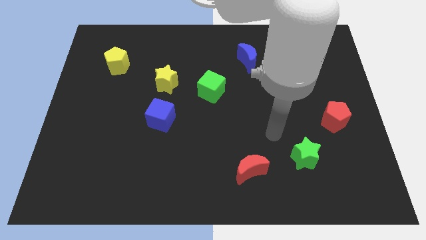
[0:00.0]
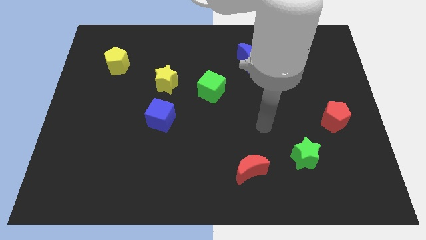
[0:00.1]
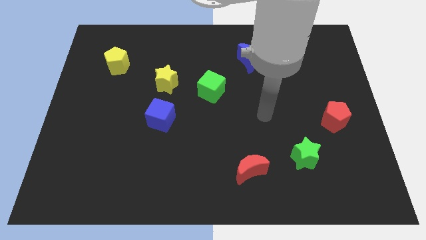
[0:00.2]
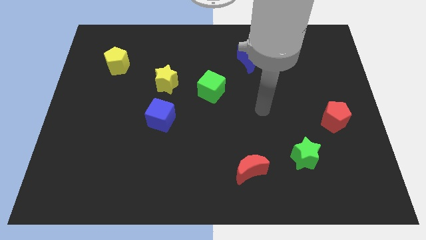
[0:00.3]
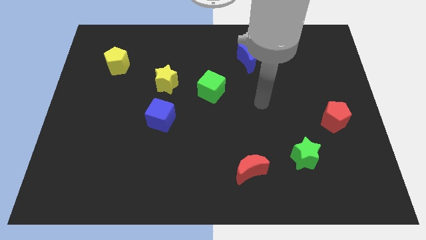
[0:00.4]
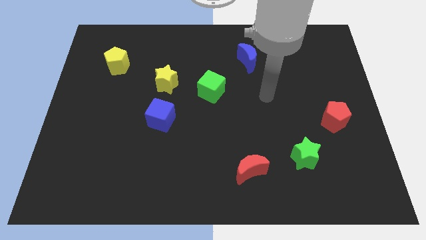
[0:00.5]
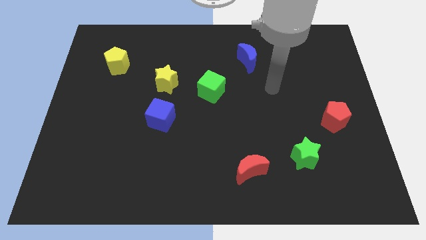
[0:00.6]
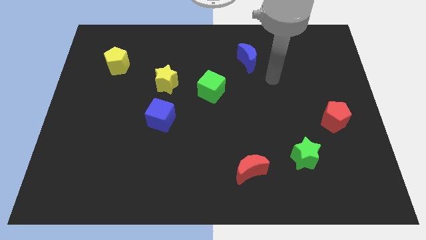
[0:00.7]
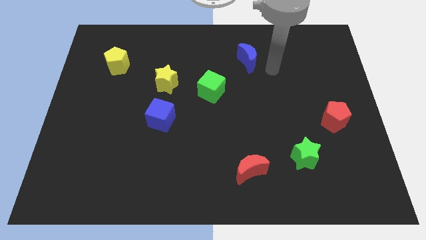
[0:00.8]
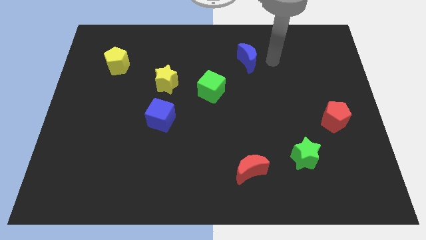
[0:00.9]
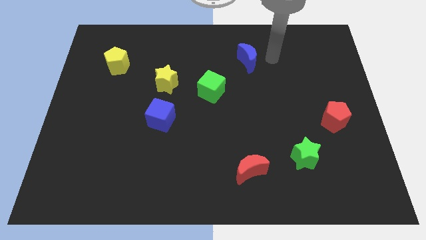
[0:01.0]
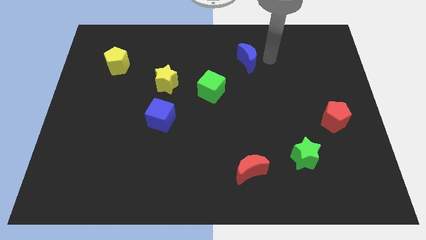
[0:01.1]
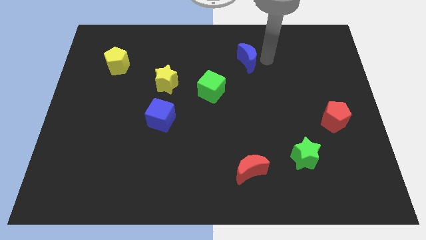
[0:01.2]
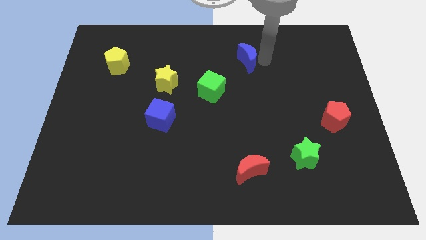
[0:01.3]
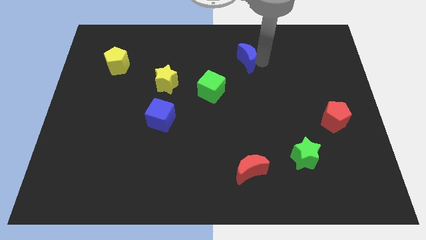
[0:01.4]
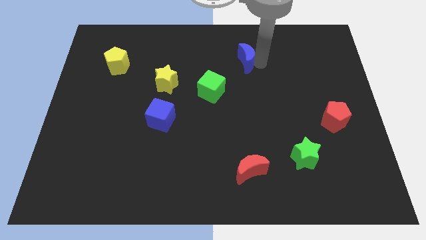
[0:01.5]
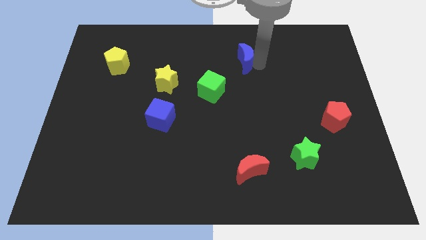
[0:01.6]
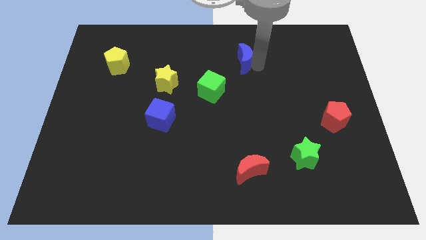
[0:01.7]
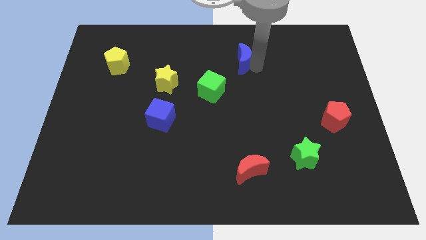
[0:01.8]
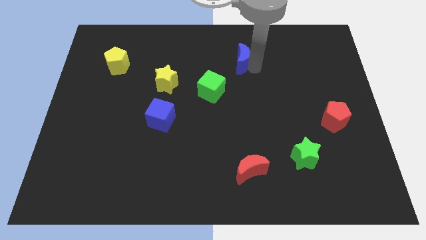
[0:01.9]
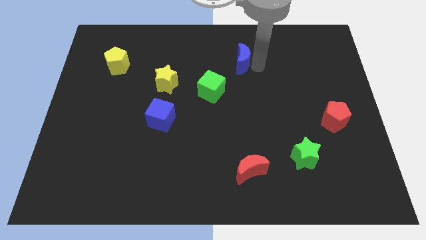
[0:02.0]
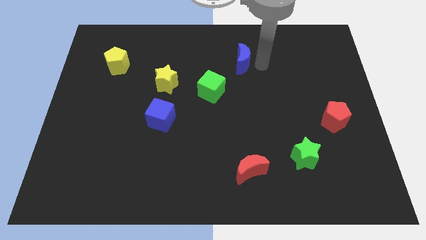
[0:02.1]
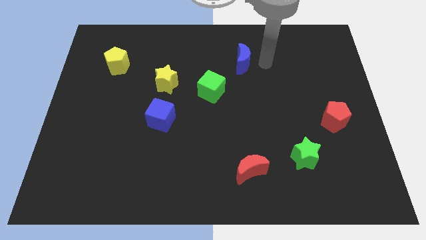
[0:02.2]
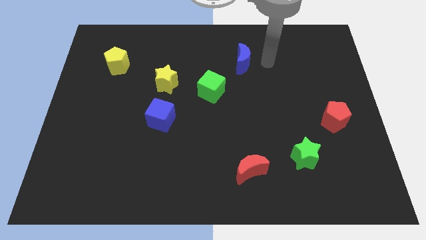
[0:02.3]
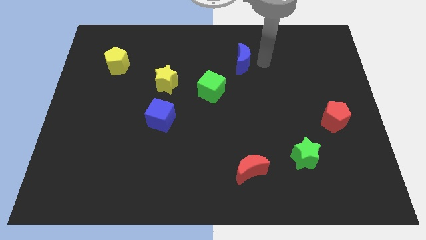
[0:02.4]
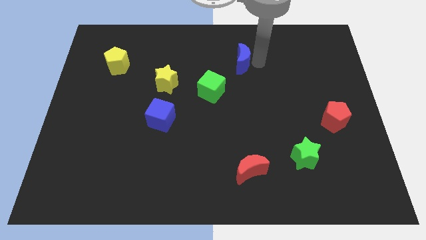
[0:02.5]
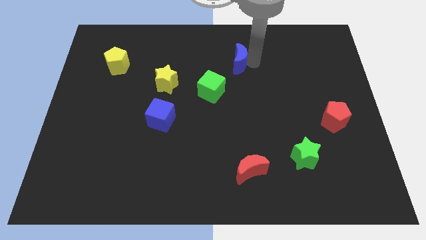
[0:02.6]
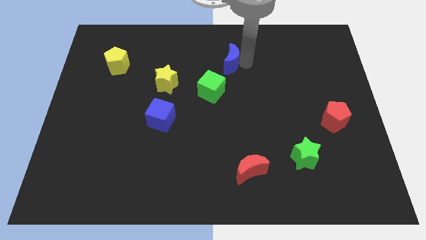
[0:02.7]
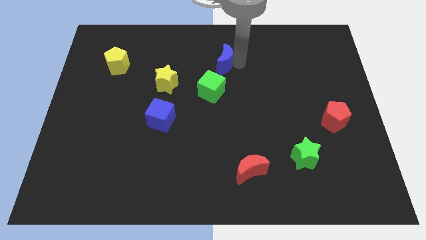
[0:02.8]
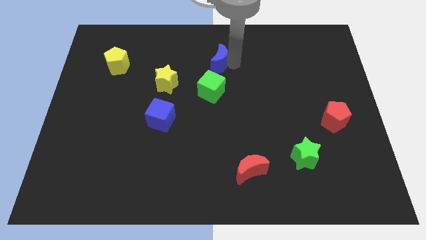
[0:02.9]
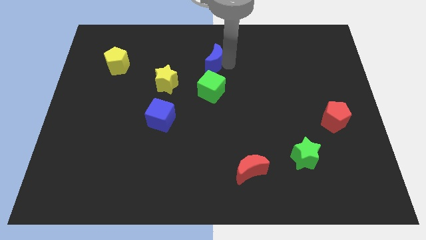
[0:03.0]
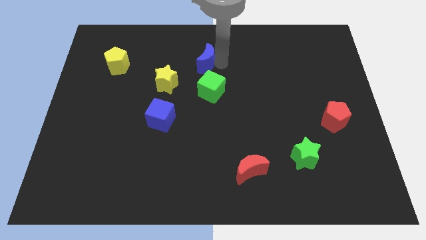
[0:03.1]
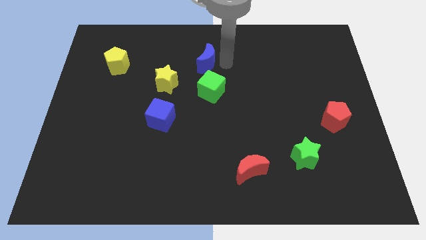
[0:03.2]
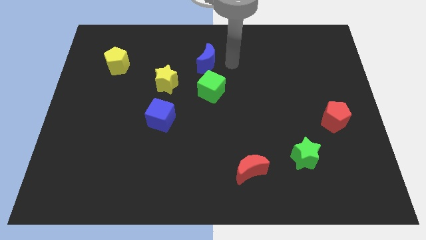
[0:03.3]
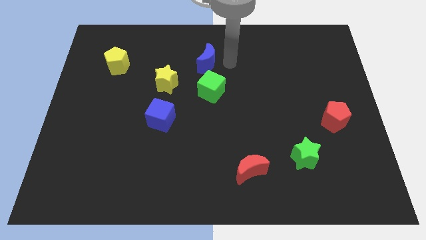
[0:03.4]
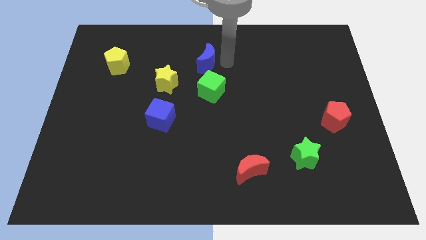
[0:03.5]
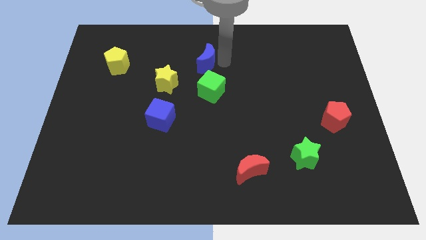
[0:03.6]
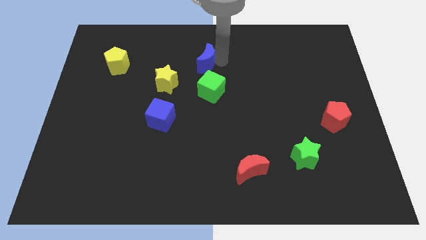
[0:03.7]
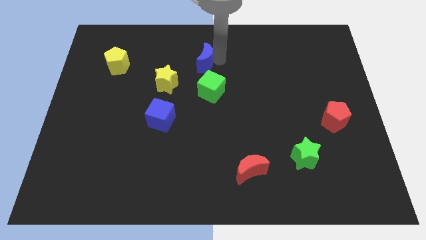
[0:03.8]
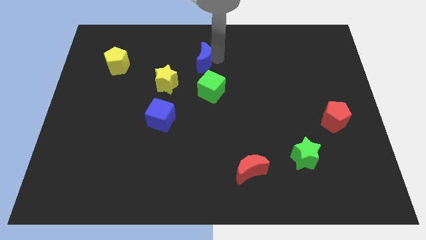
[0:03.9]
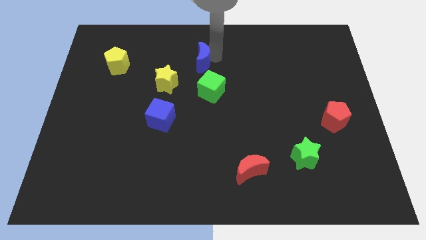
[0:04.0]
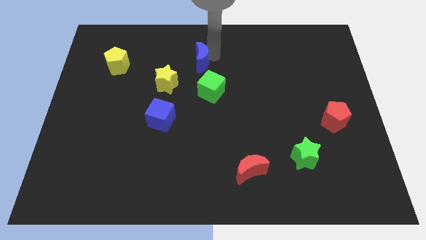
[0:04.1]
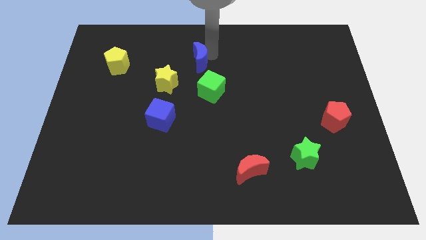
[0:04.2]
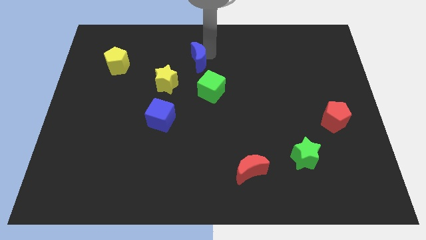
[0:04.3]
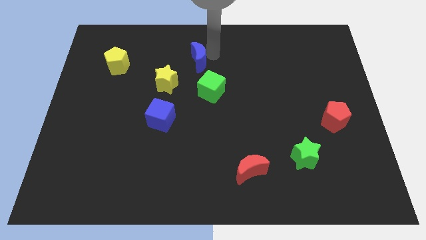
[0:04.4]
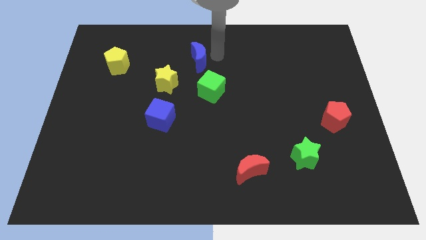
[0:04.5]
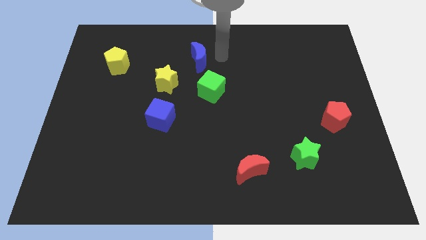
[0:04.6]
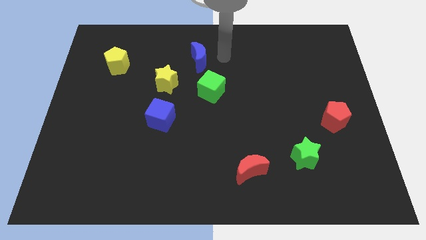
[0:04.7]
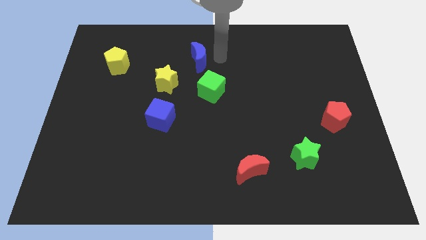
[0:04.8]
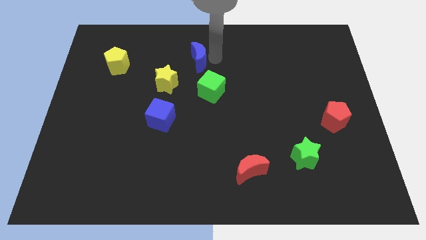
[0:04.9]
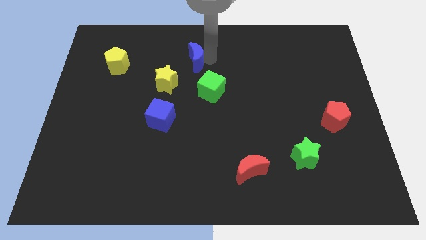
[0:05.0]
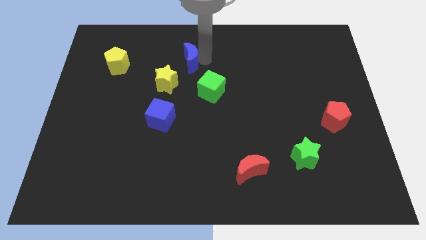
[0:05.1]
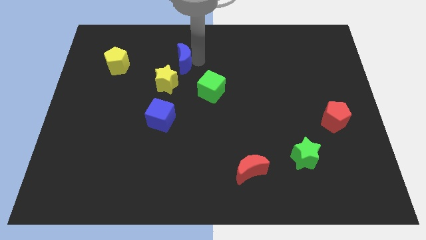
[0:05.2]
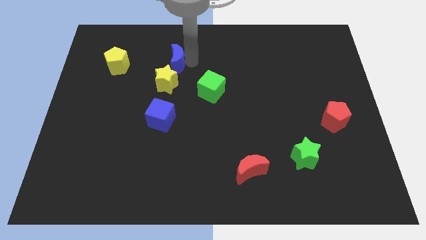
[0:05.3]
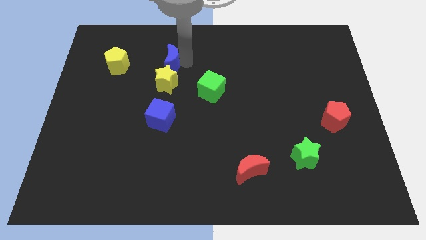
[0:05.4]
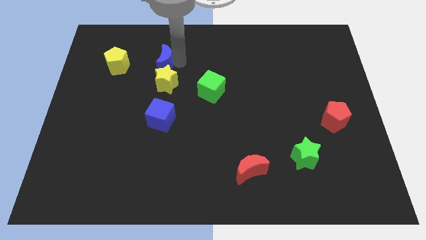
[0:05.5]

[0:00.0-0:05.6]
push the blue moon to the top left of the yellow star

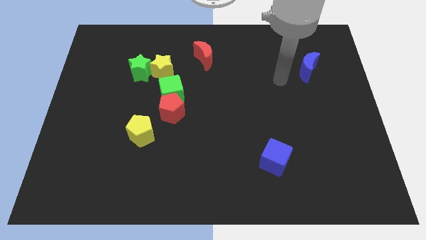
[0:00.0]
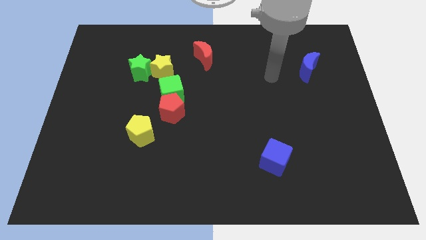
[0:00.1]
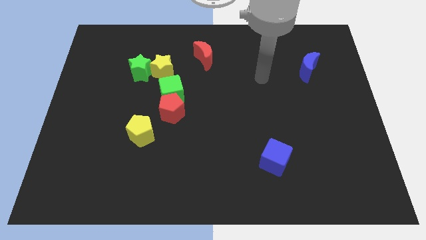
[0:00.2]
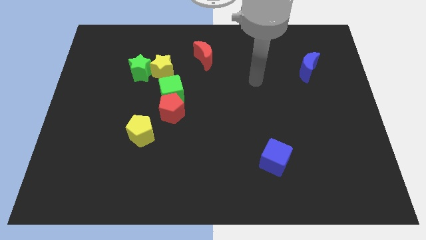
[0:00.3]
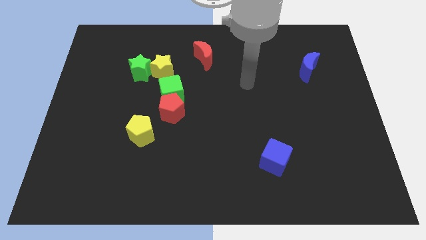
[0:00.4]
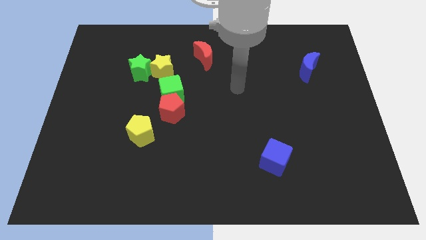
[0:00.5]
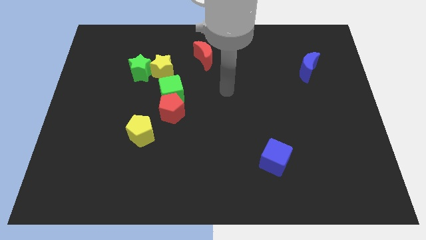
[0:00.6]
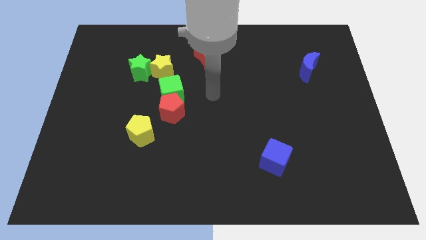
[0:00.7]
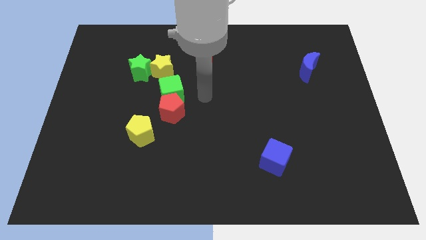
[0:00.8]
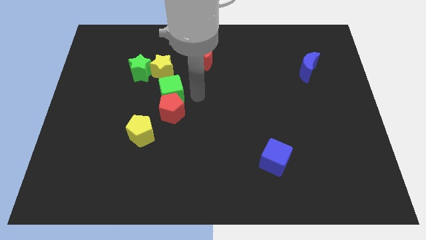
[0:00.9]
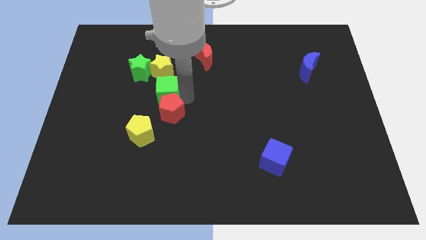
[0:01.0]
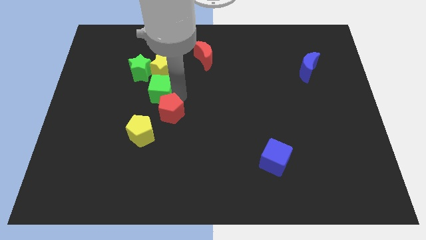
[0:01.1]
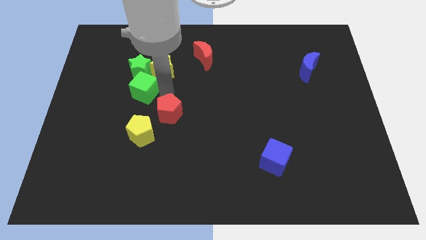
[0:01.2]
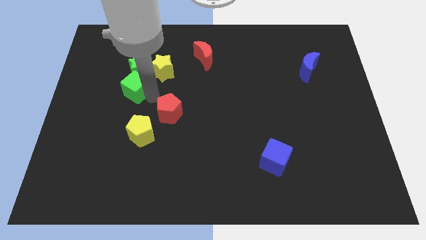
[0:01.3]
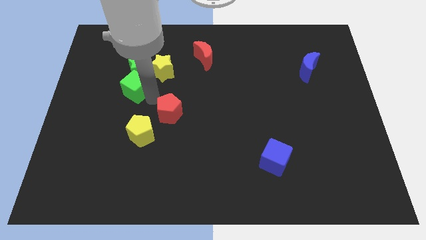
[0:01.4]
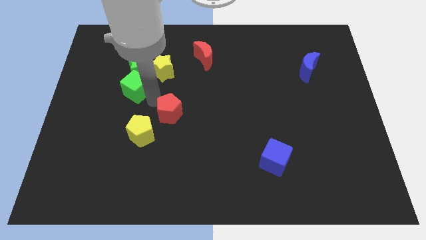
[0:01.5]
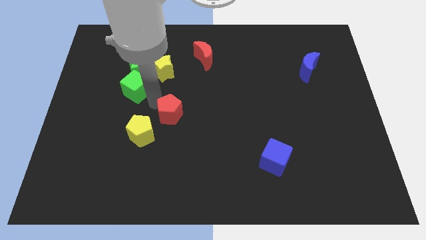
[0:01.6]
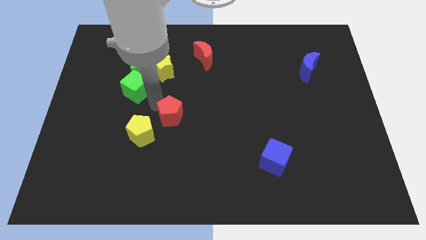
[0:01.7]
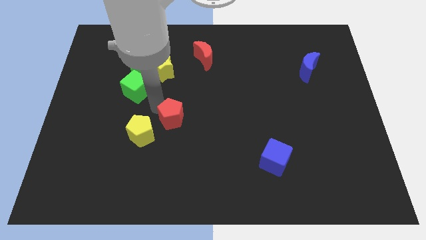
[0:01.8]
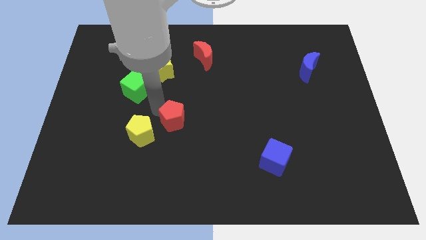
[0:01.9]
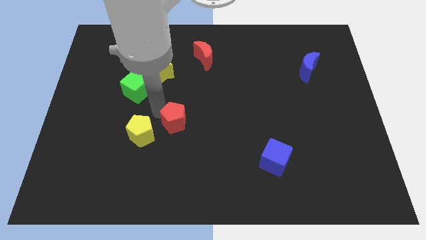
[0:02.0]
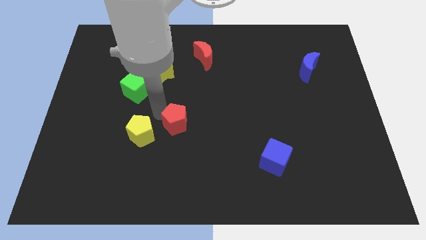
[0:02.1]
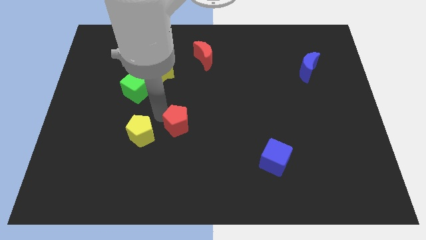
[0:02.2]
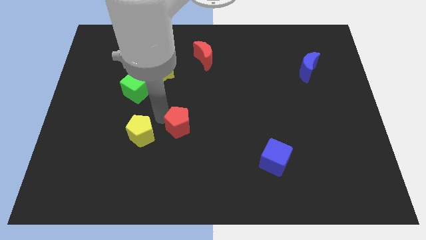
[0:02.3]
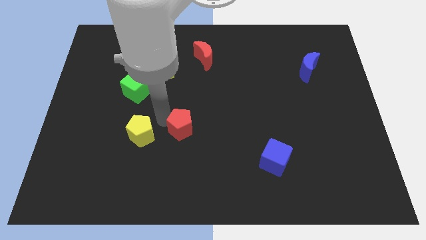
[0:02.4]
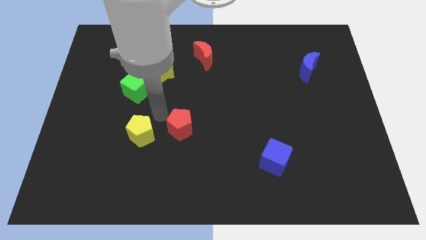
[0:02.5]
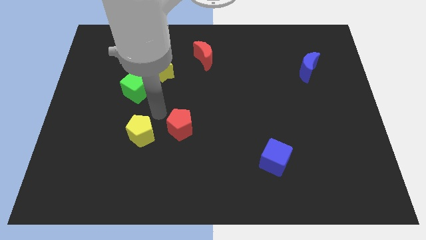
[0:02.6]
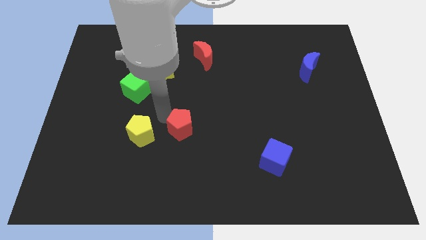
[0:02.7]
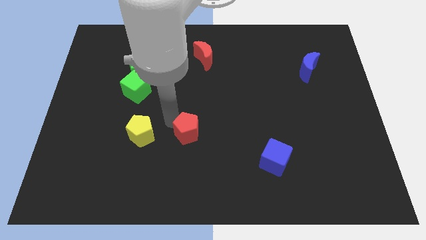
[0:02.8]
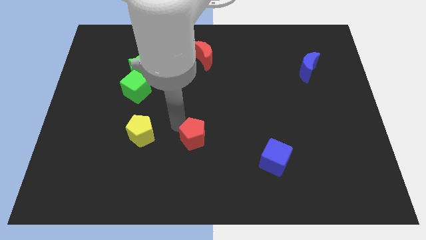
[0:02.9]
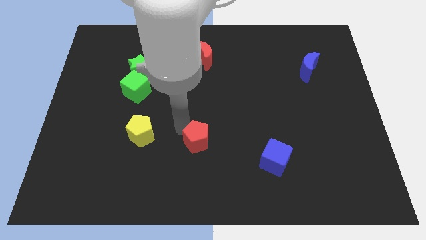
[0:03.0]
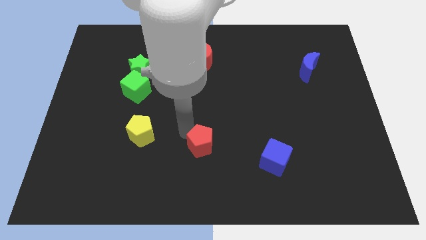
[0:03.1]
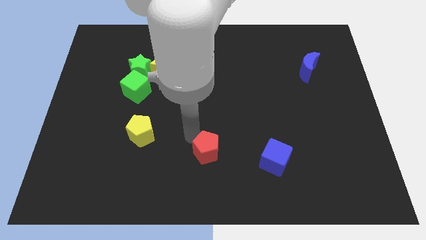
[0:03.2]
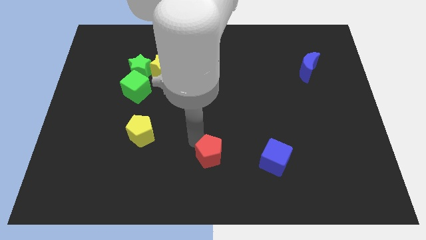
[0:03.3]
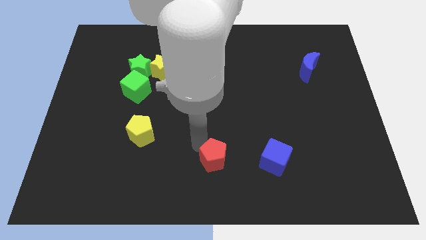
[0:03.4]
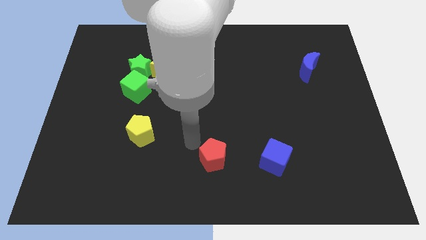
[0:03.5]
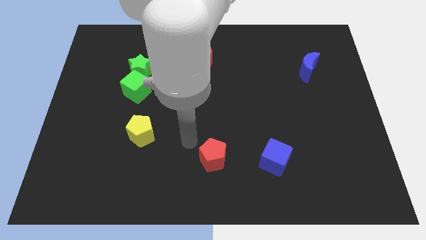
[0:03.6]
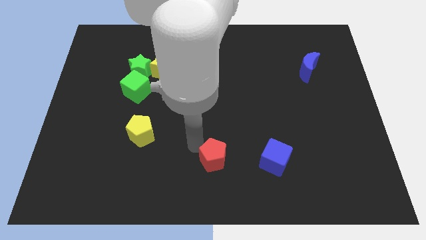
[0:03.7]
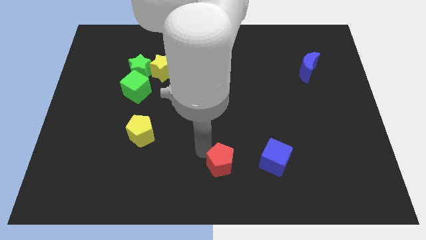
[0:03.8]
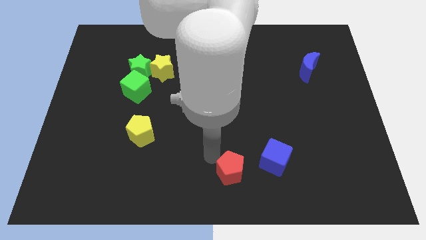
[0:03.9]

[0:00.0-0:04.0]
slide the red pentagon to the bottom left side of the blue cube
